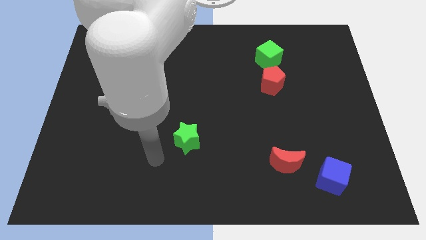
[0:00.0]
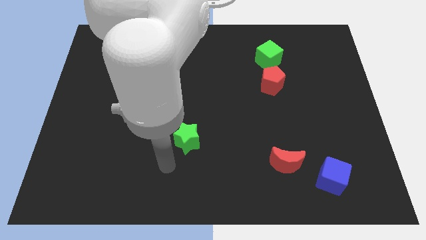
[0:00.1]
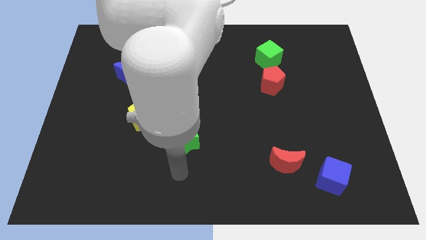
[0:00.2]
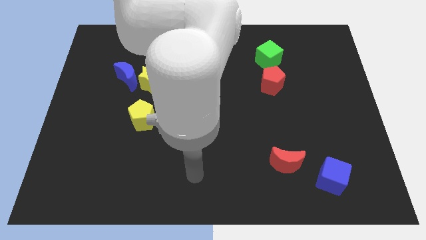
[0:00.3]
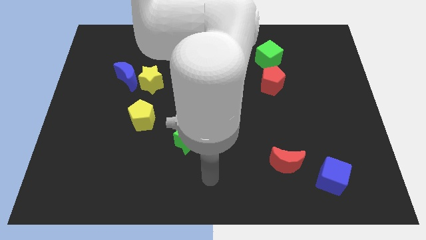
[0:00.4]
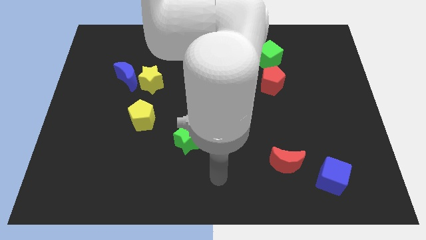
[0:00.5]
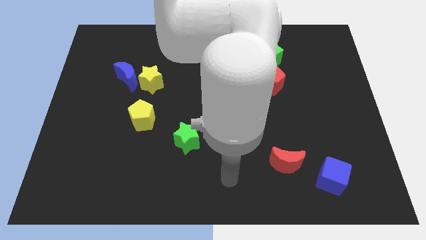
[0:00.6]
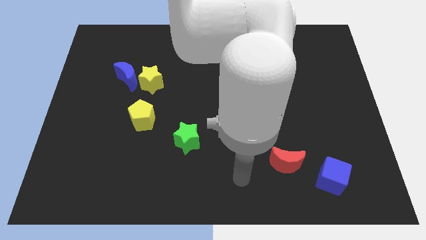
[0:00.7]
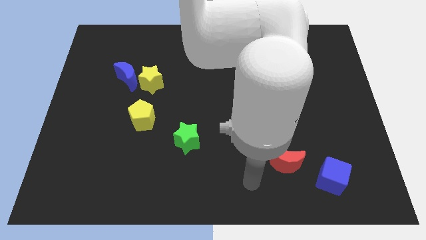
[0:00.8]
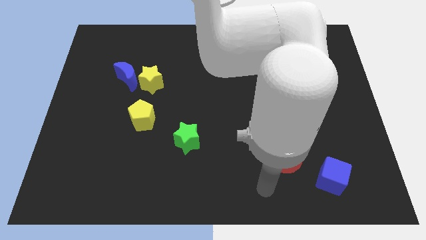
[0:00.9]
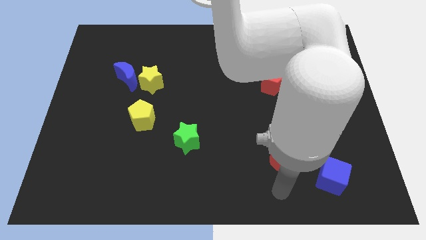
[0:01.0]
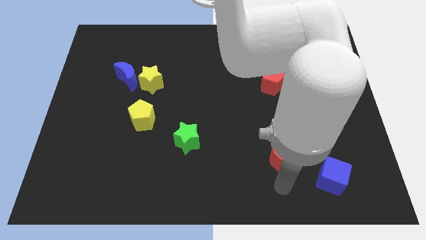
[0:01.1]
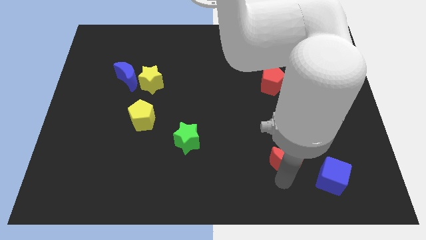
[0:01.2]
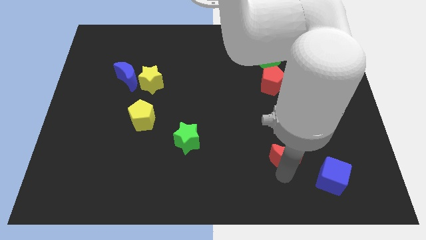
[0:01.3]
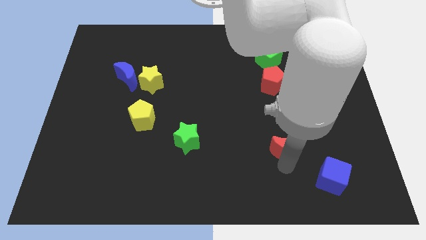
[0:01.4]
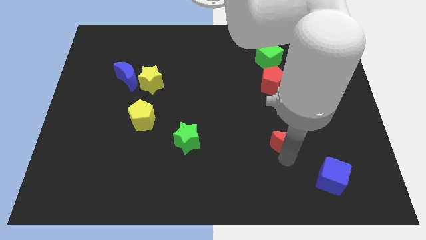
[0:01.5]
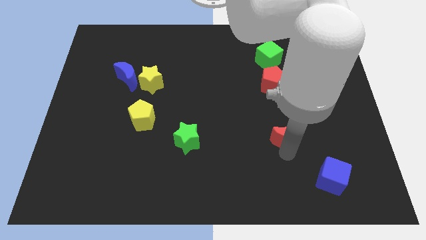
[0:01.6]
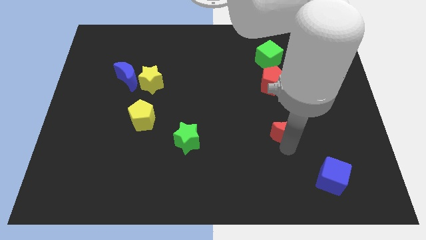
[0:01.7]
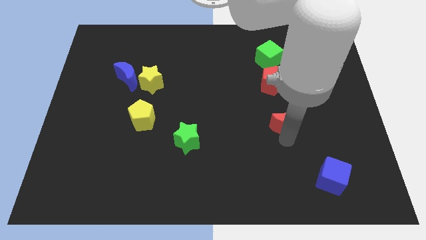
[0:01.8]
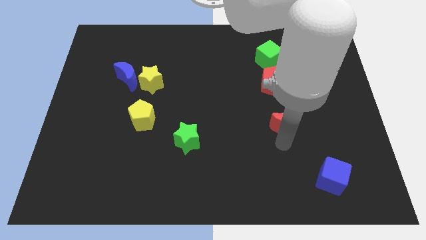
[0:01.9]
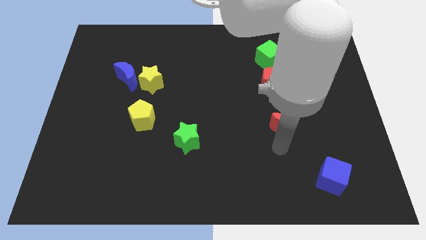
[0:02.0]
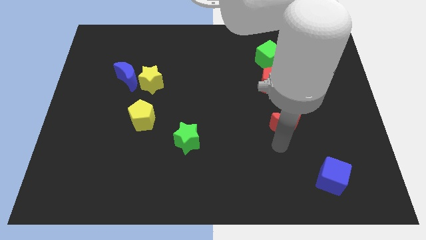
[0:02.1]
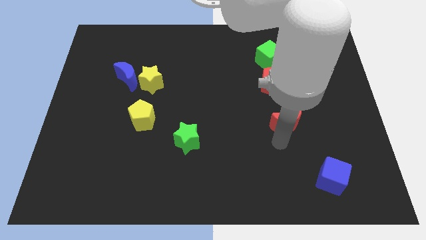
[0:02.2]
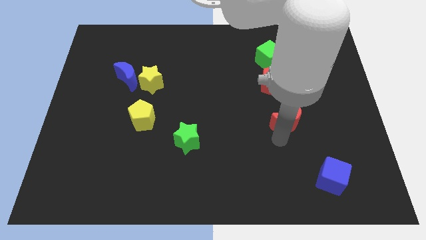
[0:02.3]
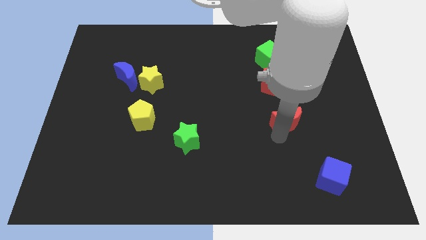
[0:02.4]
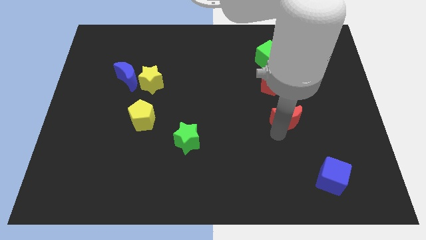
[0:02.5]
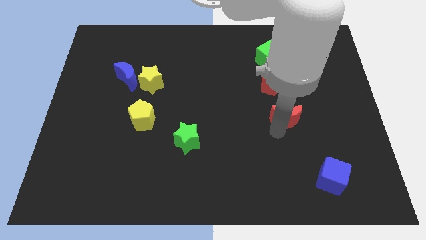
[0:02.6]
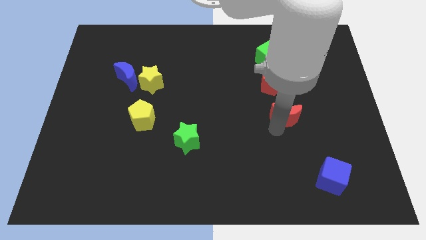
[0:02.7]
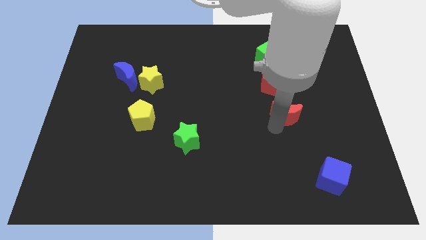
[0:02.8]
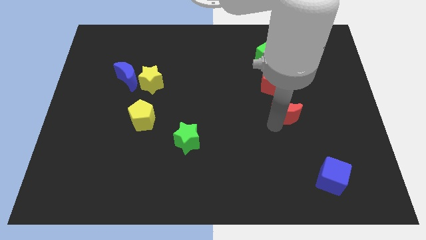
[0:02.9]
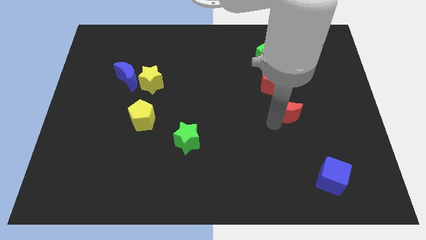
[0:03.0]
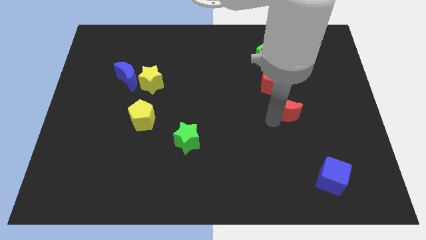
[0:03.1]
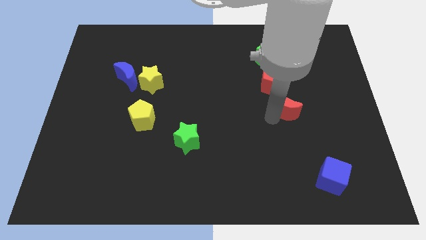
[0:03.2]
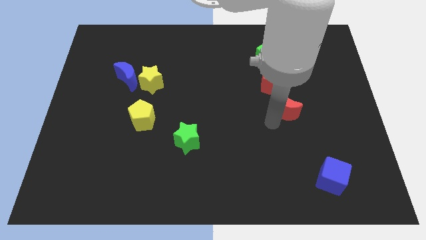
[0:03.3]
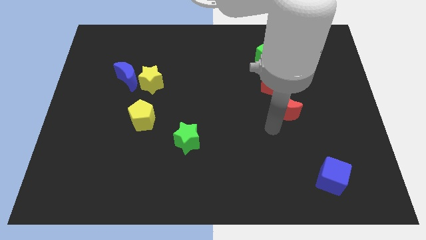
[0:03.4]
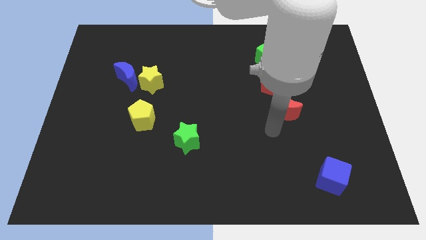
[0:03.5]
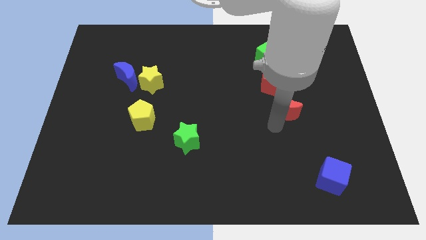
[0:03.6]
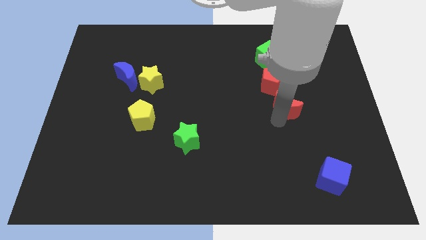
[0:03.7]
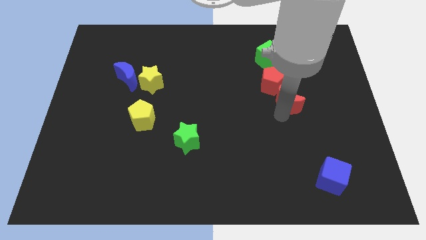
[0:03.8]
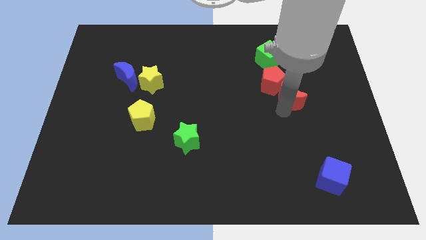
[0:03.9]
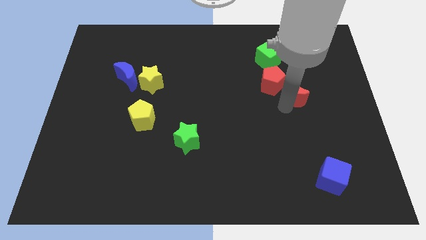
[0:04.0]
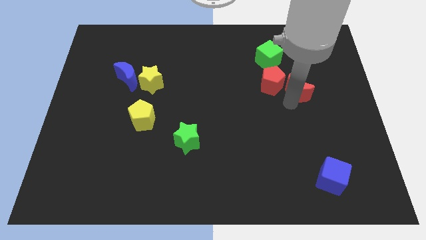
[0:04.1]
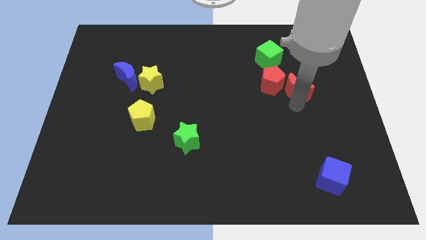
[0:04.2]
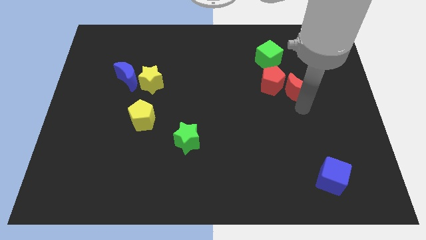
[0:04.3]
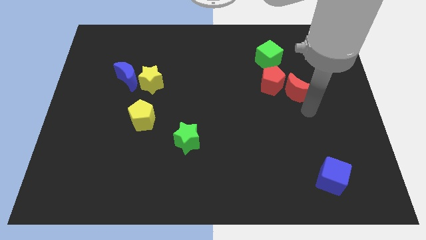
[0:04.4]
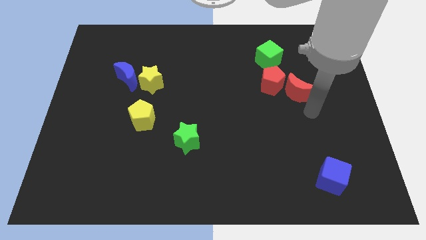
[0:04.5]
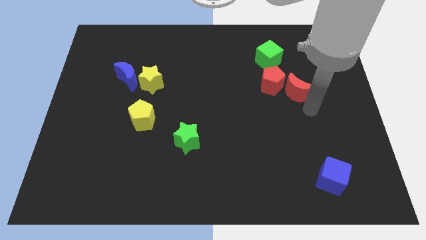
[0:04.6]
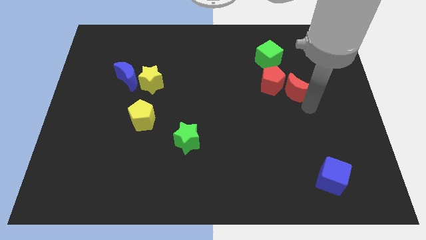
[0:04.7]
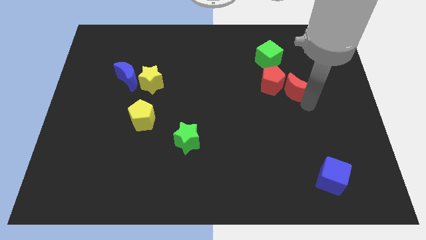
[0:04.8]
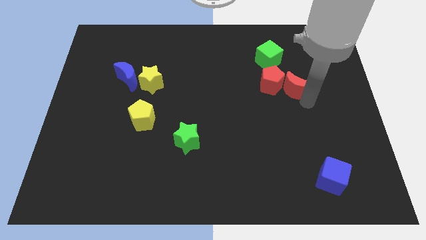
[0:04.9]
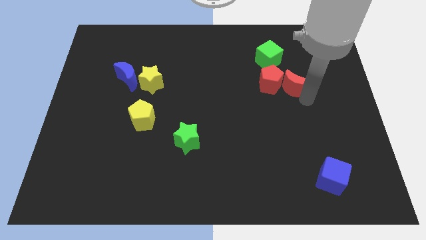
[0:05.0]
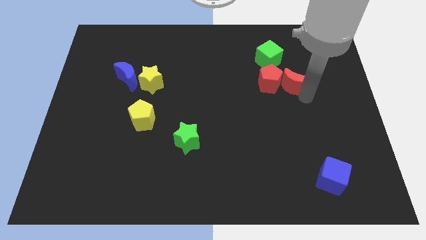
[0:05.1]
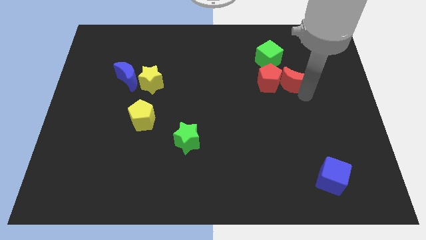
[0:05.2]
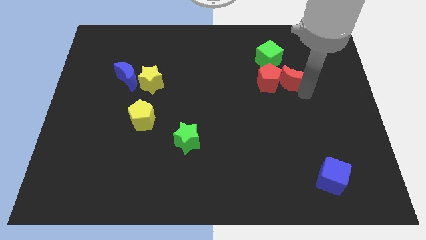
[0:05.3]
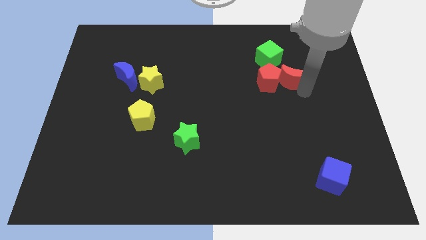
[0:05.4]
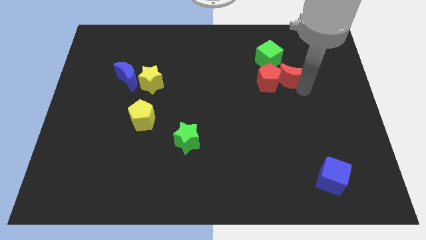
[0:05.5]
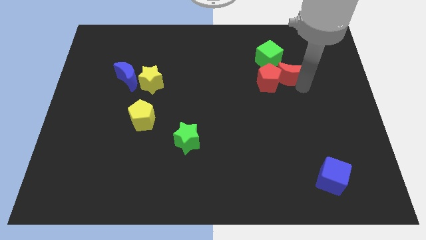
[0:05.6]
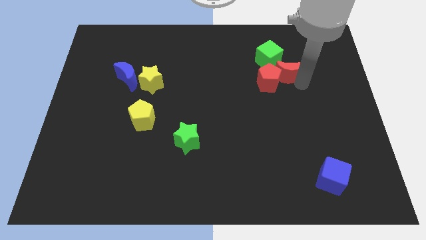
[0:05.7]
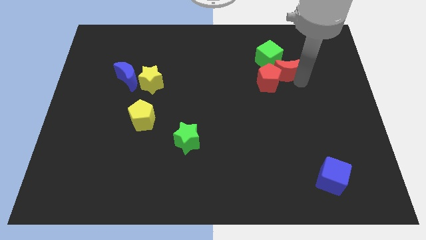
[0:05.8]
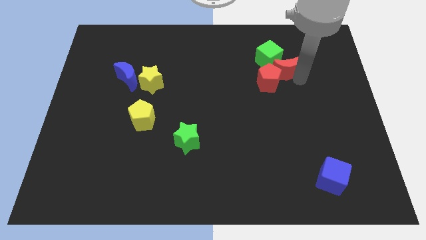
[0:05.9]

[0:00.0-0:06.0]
move the red moon towards the green cube

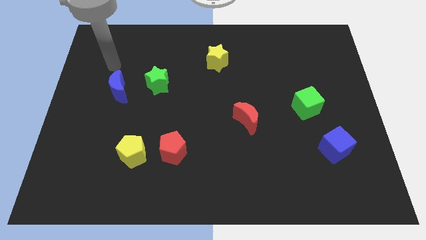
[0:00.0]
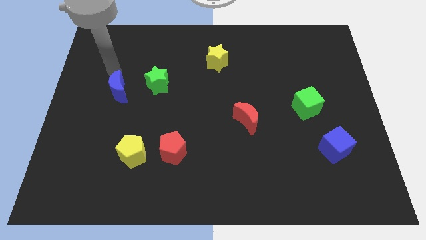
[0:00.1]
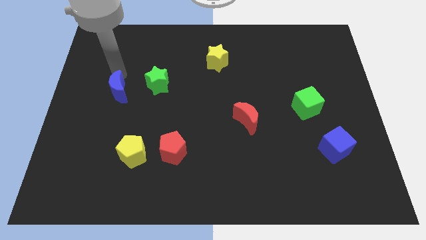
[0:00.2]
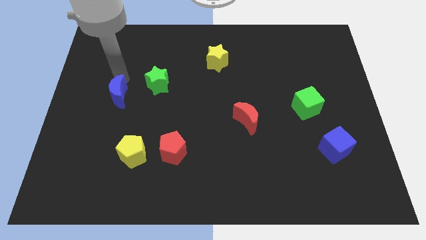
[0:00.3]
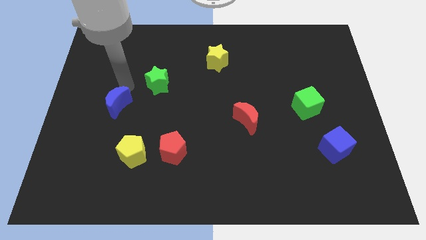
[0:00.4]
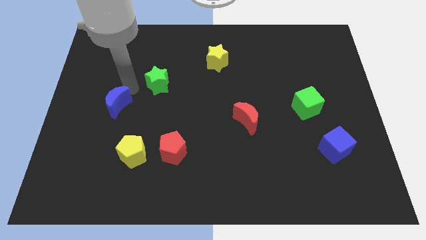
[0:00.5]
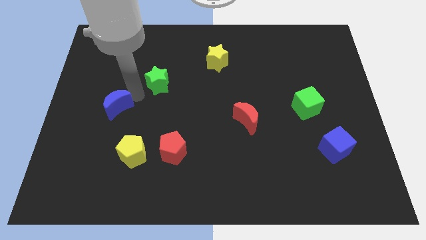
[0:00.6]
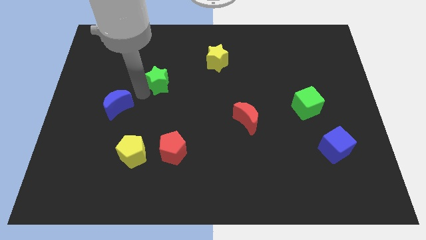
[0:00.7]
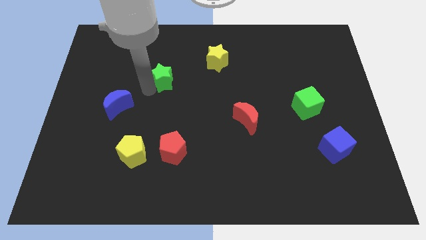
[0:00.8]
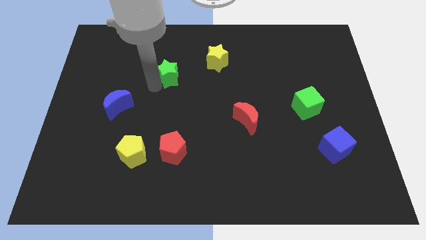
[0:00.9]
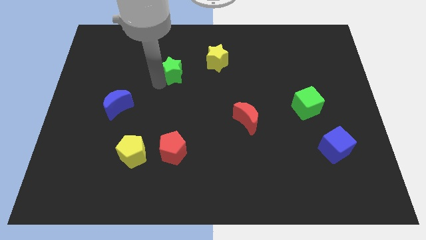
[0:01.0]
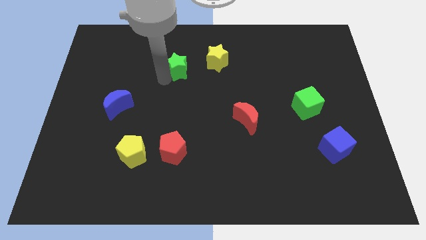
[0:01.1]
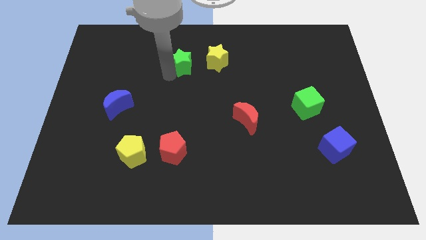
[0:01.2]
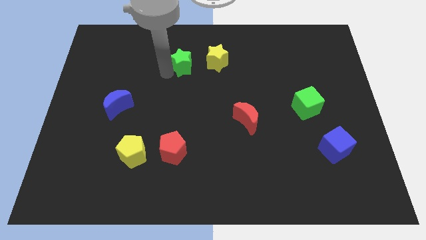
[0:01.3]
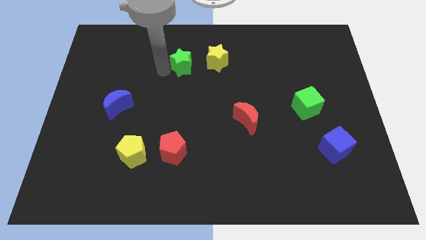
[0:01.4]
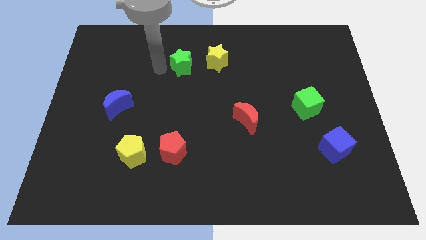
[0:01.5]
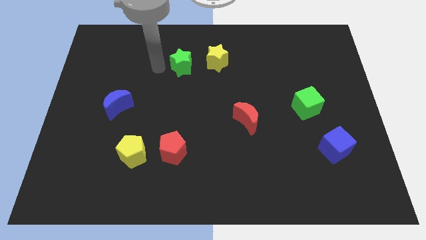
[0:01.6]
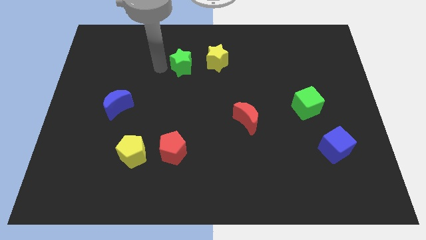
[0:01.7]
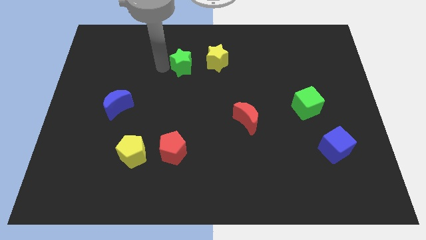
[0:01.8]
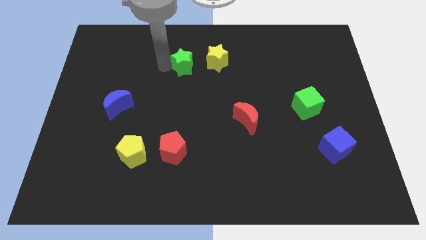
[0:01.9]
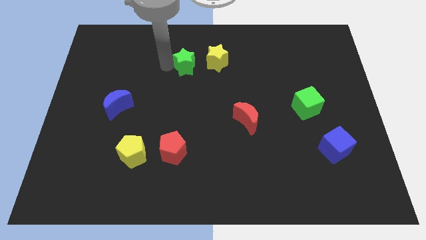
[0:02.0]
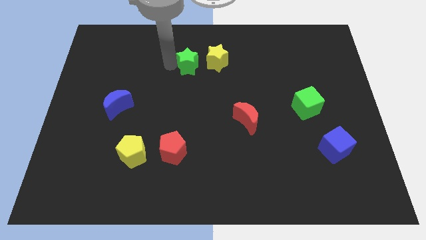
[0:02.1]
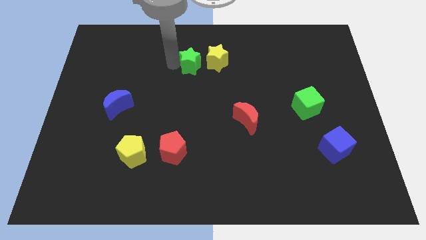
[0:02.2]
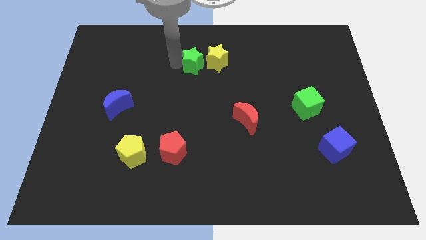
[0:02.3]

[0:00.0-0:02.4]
put the green star next to the yellow star
